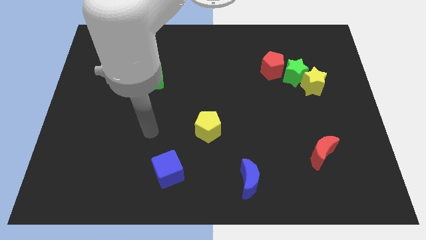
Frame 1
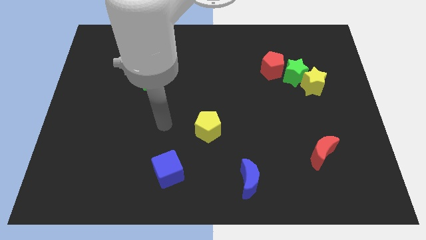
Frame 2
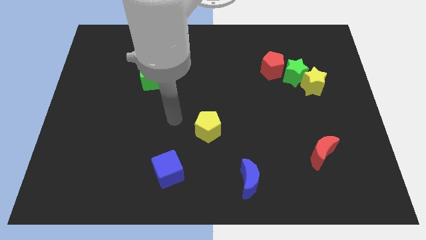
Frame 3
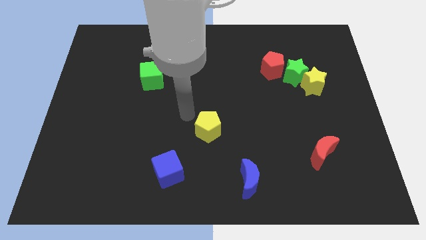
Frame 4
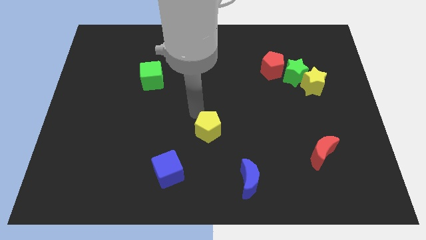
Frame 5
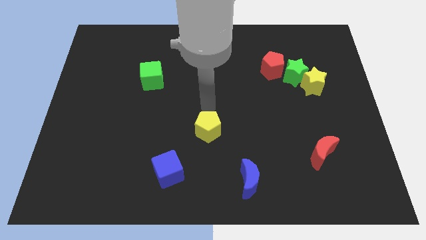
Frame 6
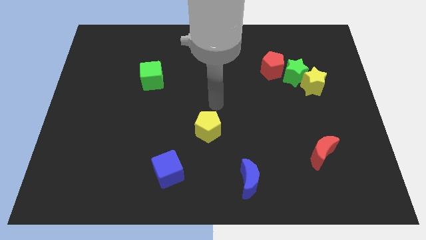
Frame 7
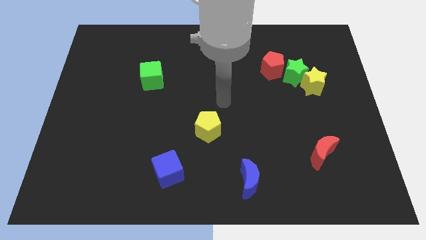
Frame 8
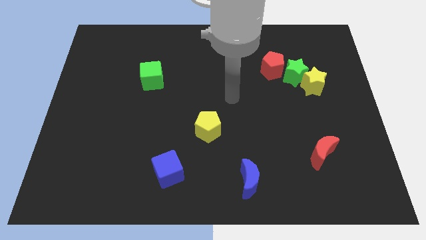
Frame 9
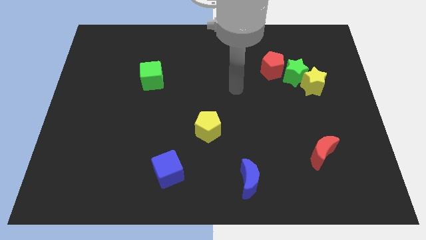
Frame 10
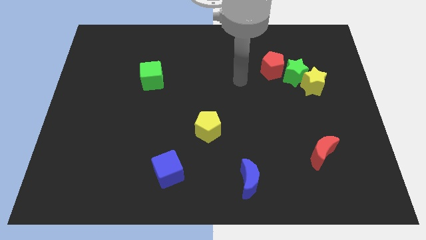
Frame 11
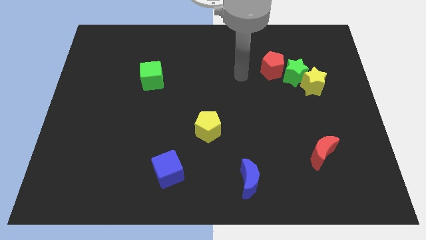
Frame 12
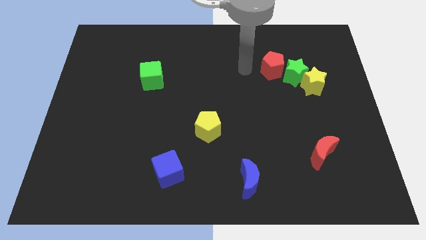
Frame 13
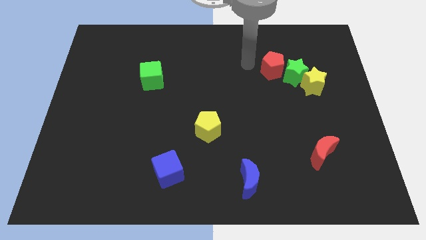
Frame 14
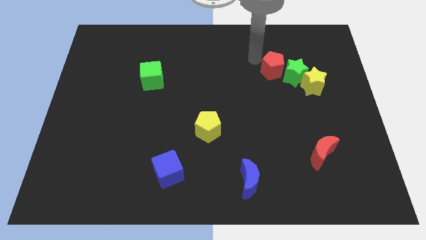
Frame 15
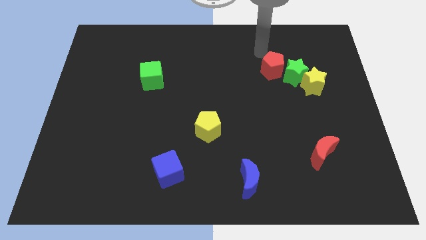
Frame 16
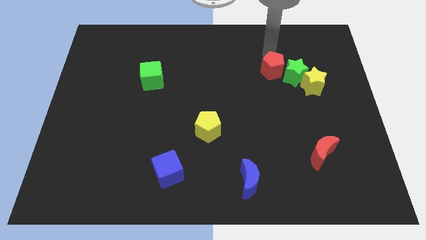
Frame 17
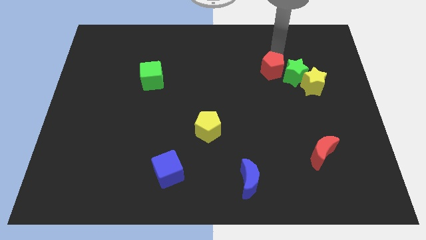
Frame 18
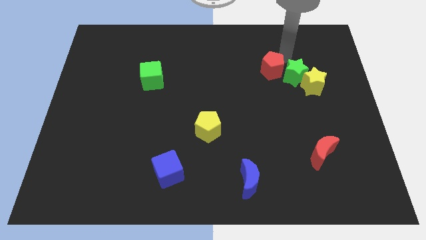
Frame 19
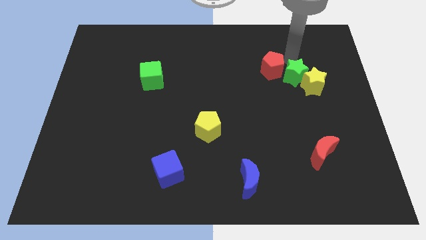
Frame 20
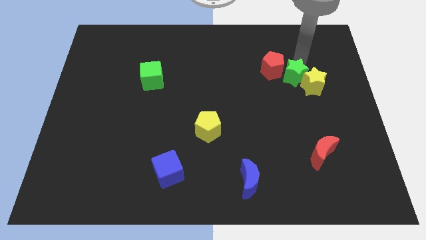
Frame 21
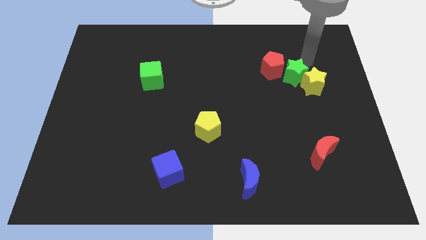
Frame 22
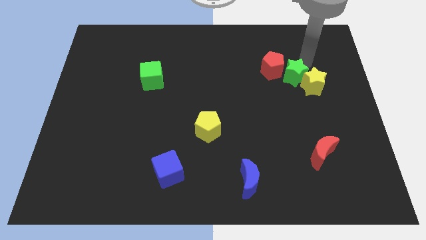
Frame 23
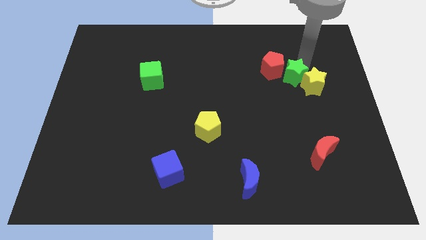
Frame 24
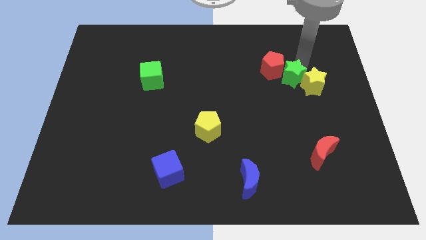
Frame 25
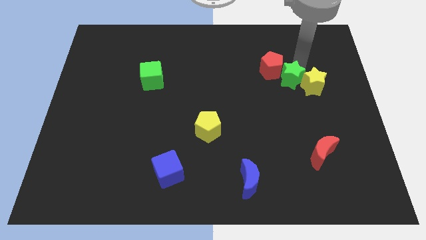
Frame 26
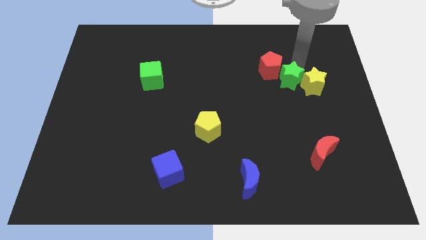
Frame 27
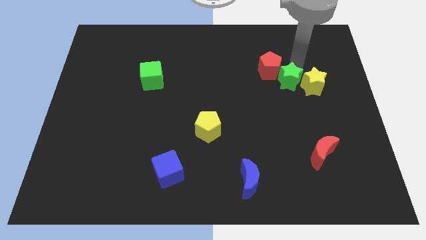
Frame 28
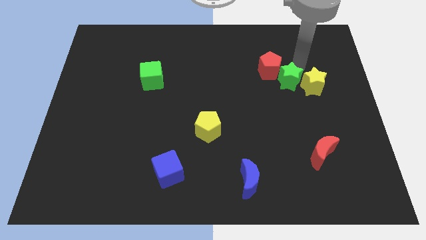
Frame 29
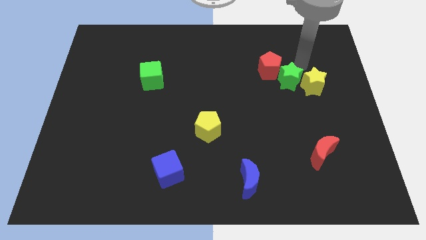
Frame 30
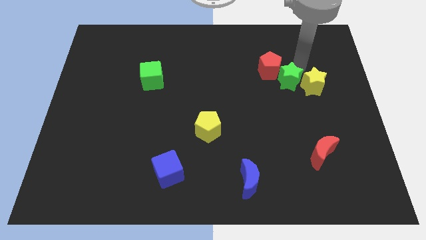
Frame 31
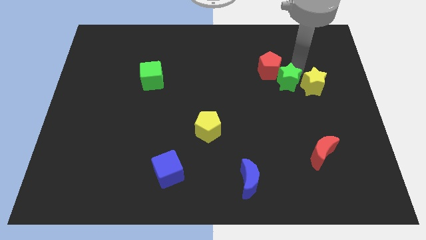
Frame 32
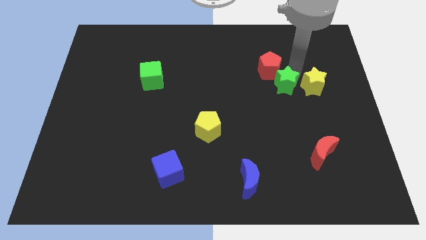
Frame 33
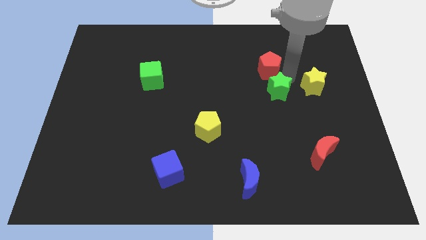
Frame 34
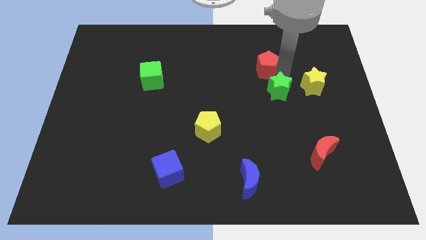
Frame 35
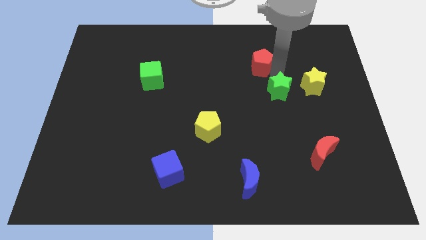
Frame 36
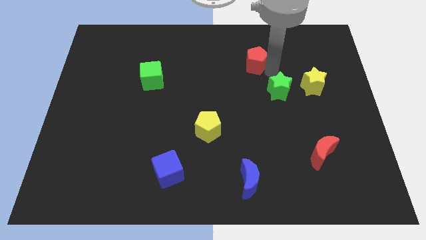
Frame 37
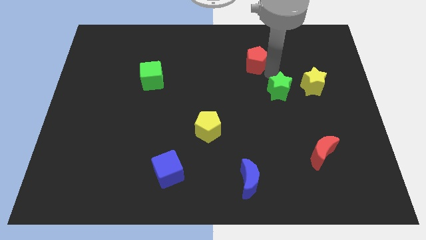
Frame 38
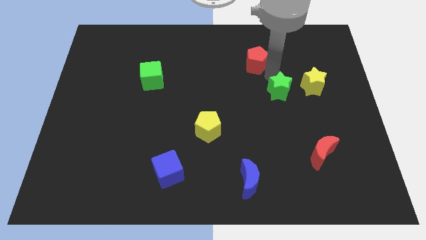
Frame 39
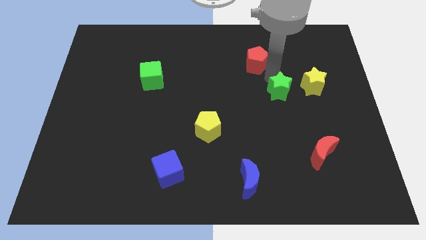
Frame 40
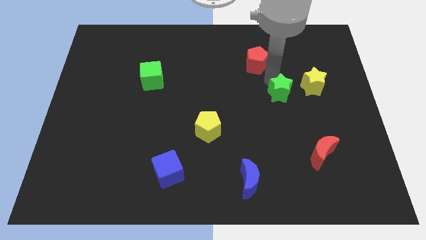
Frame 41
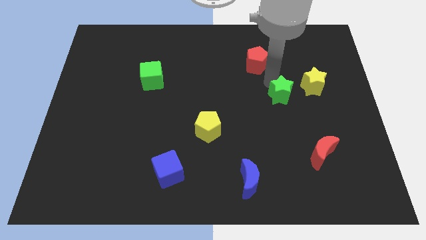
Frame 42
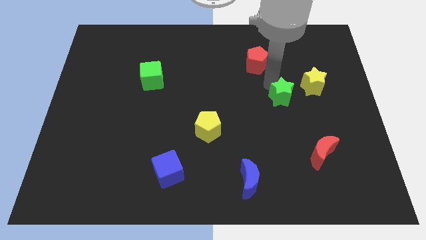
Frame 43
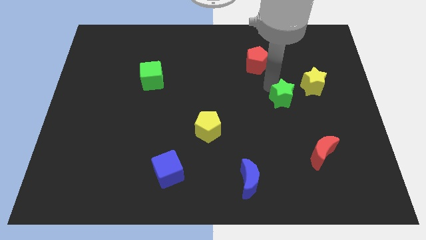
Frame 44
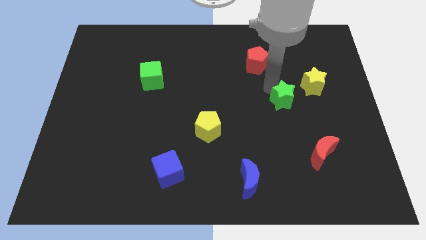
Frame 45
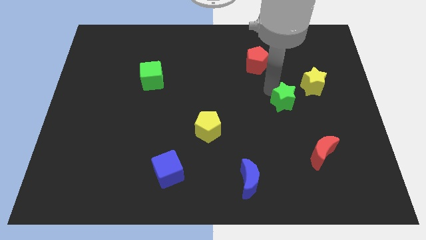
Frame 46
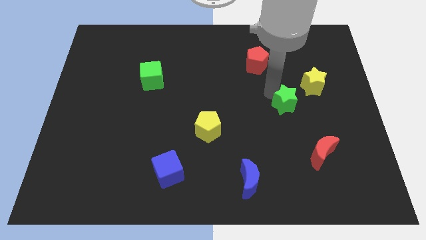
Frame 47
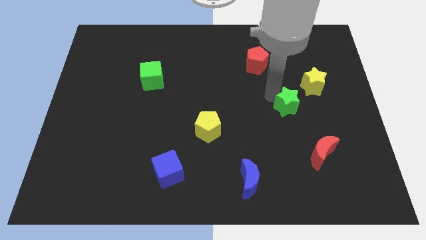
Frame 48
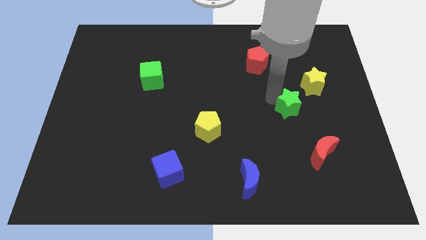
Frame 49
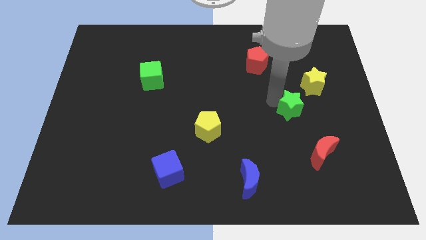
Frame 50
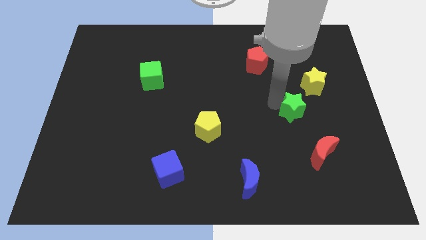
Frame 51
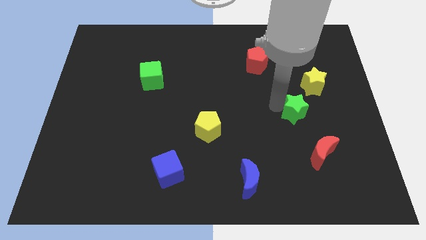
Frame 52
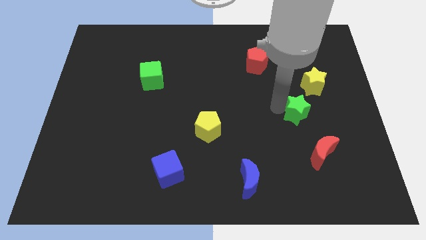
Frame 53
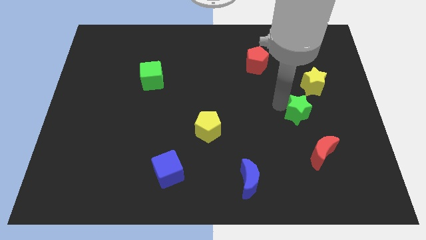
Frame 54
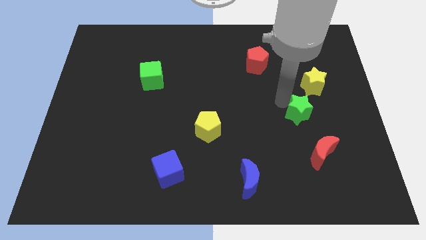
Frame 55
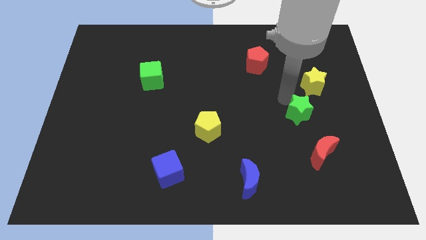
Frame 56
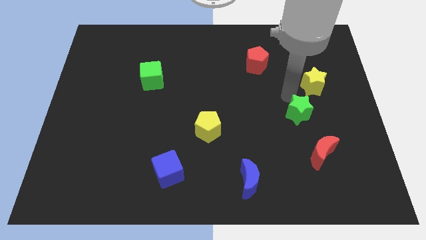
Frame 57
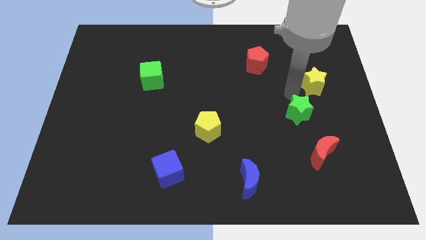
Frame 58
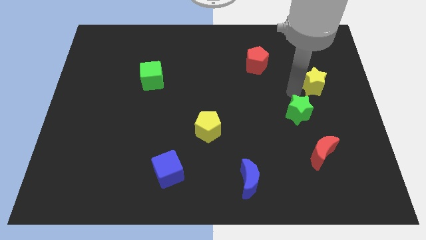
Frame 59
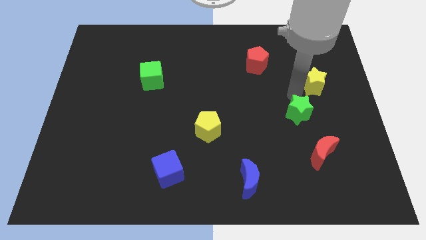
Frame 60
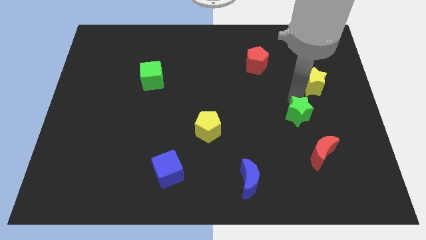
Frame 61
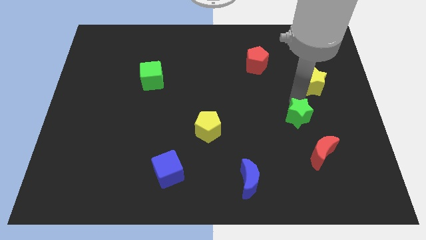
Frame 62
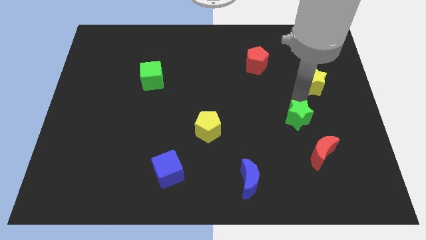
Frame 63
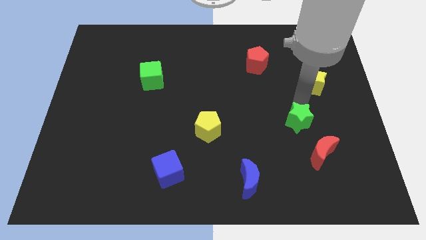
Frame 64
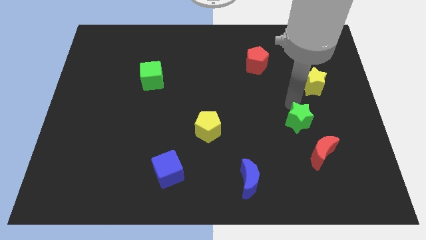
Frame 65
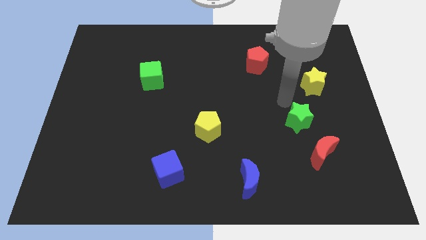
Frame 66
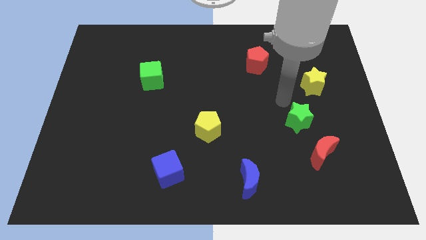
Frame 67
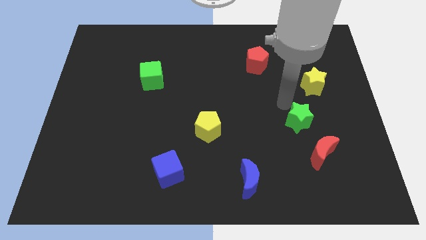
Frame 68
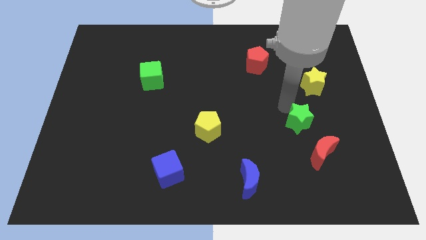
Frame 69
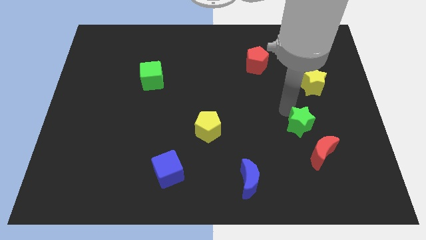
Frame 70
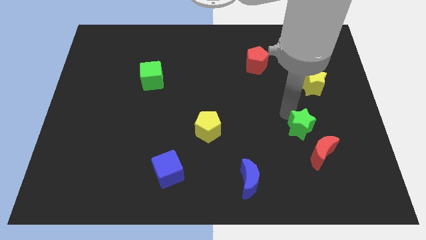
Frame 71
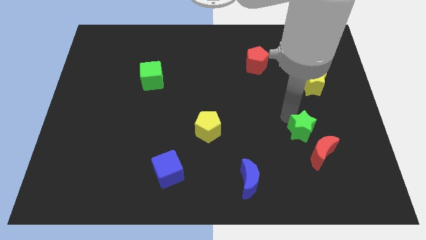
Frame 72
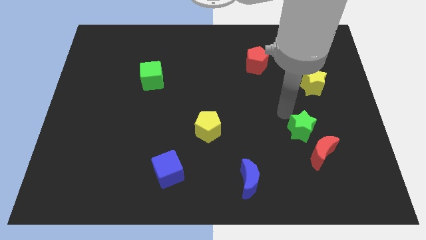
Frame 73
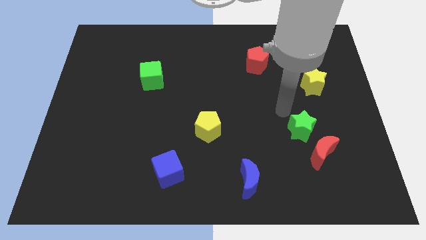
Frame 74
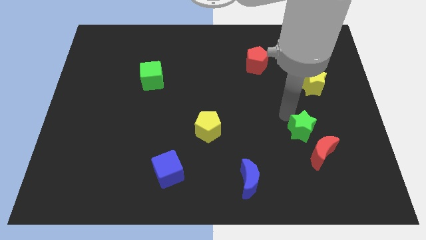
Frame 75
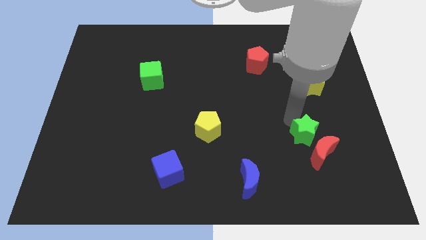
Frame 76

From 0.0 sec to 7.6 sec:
put the green star next to the red moon
